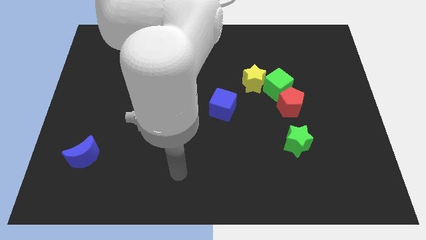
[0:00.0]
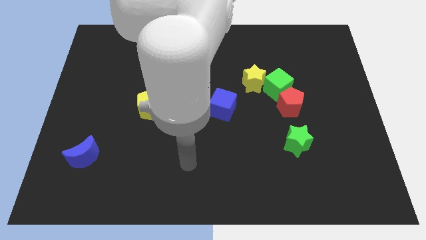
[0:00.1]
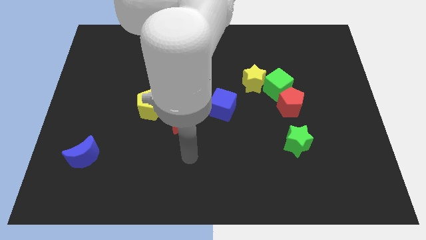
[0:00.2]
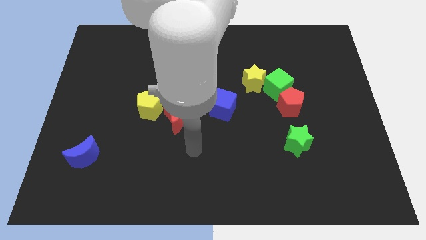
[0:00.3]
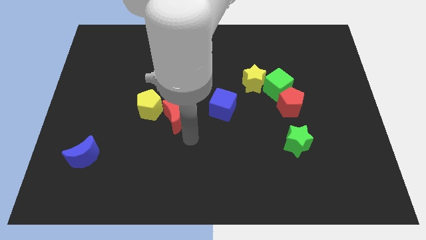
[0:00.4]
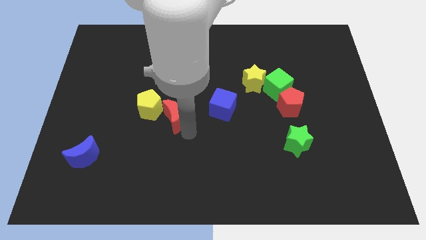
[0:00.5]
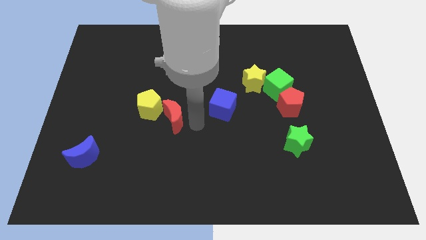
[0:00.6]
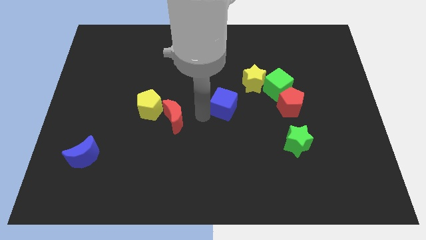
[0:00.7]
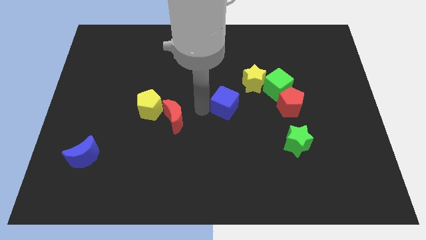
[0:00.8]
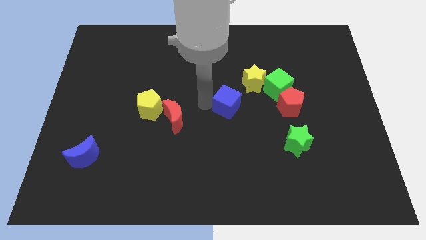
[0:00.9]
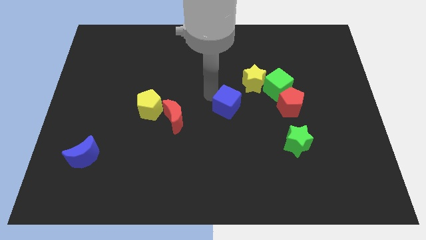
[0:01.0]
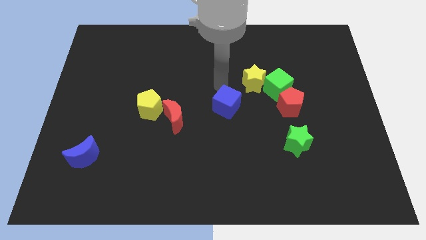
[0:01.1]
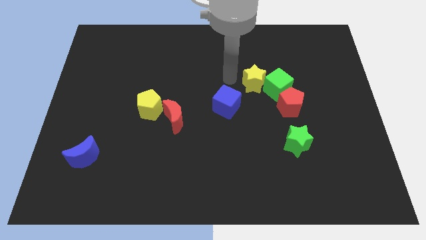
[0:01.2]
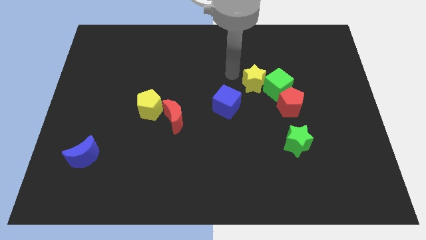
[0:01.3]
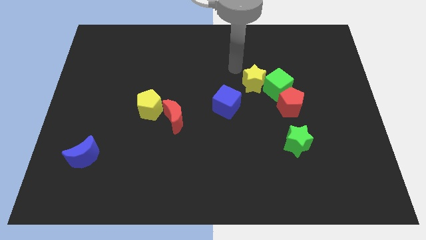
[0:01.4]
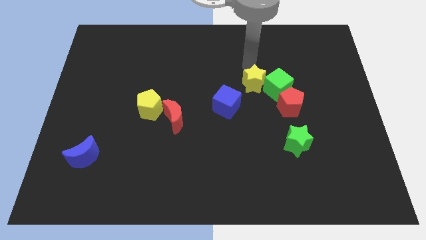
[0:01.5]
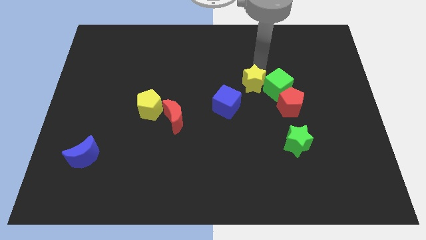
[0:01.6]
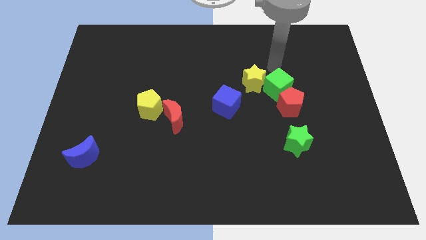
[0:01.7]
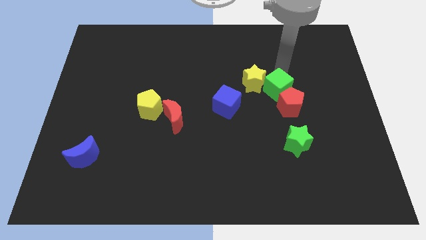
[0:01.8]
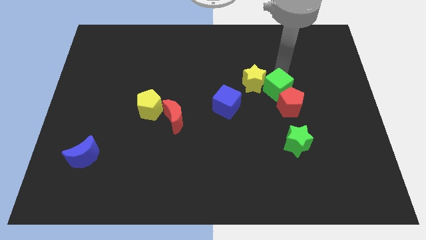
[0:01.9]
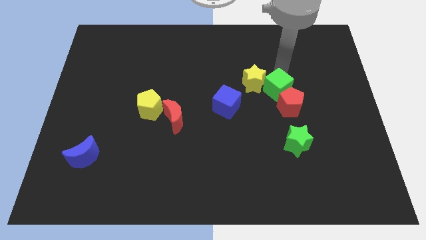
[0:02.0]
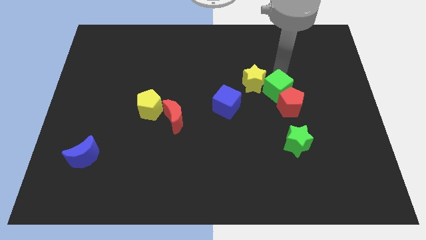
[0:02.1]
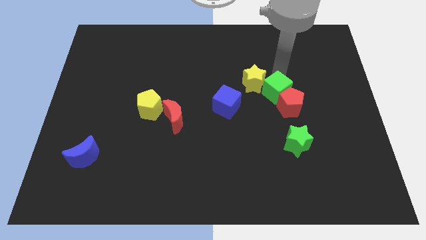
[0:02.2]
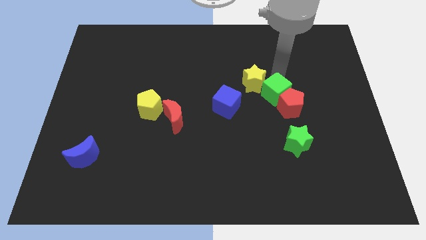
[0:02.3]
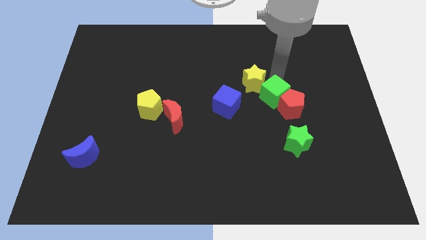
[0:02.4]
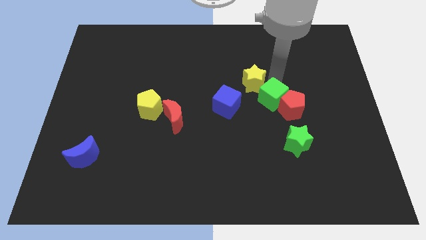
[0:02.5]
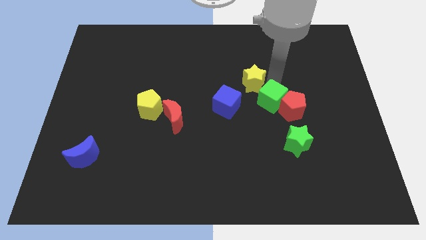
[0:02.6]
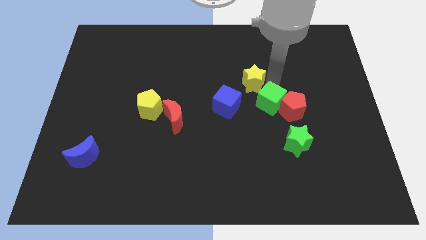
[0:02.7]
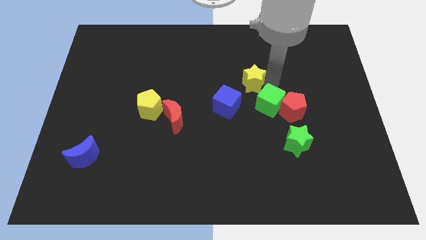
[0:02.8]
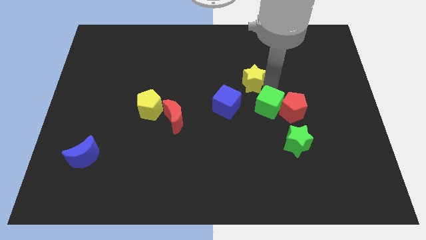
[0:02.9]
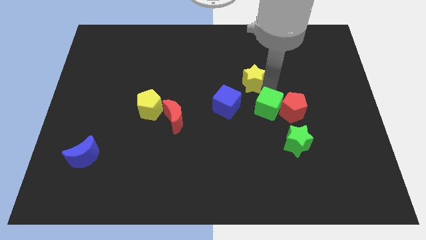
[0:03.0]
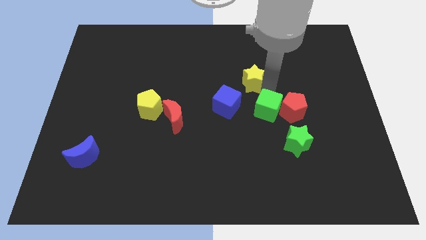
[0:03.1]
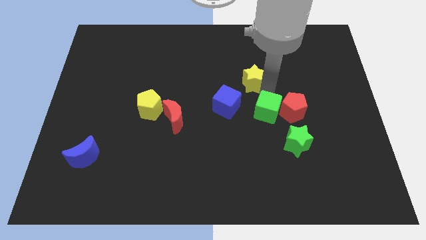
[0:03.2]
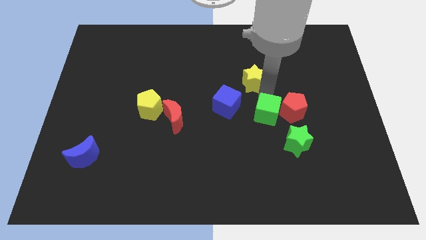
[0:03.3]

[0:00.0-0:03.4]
slide the green cube down a little bit

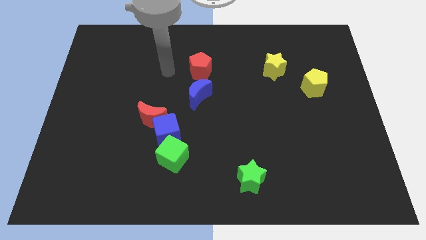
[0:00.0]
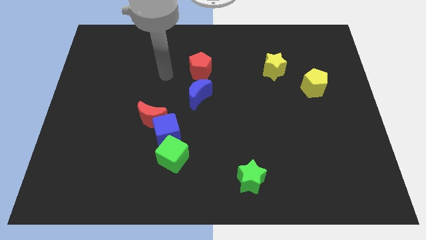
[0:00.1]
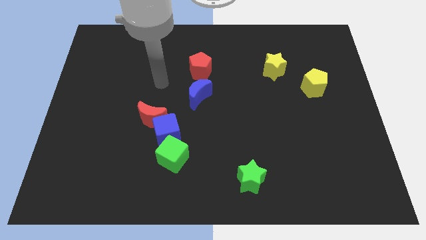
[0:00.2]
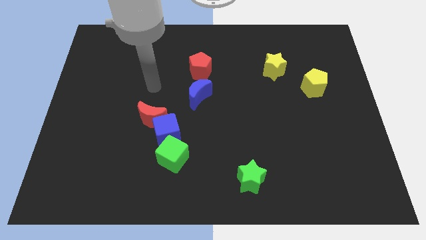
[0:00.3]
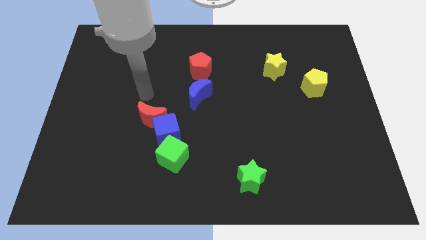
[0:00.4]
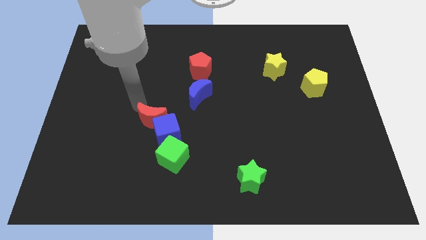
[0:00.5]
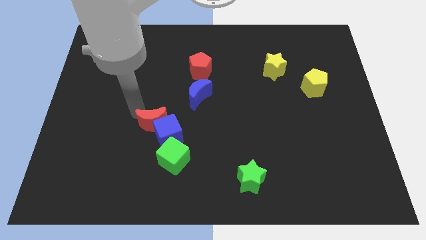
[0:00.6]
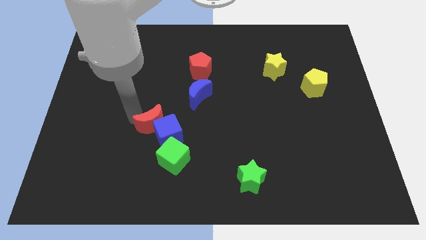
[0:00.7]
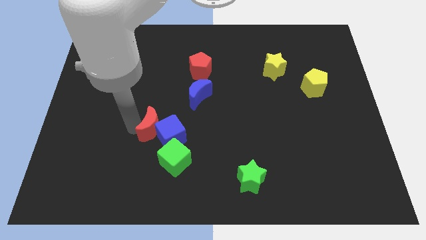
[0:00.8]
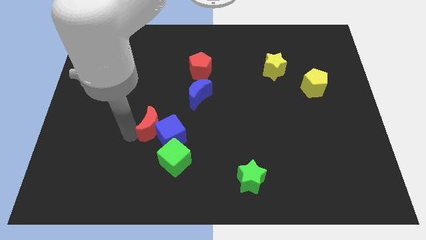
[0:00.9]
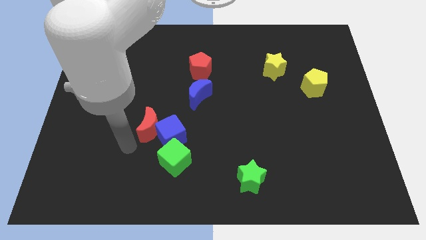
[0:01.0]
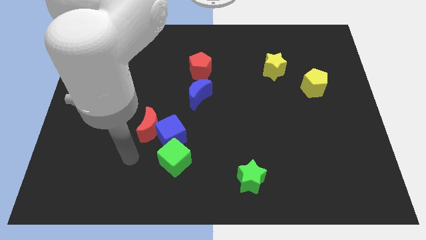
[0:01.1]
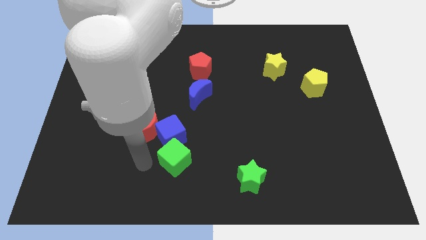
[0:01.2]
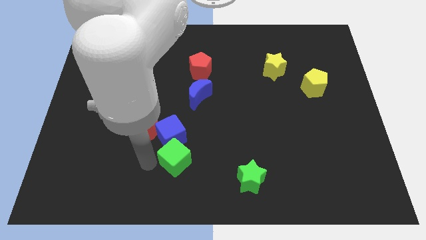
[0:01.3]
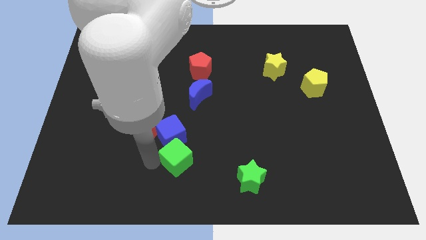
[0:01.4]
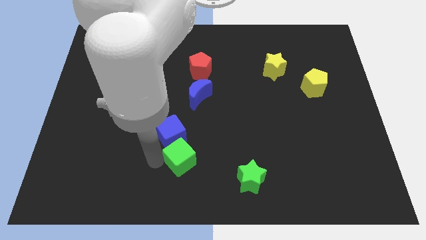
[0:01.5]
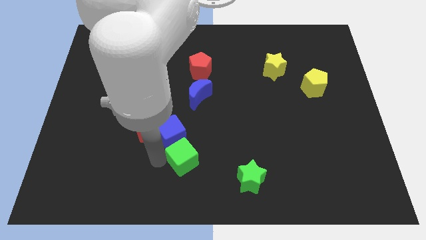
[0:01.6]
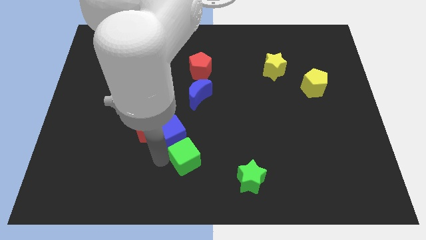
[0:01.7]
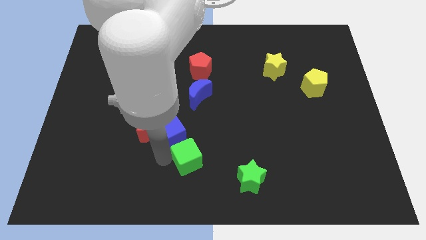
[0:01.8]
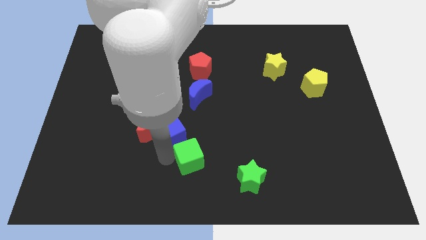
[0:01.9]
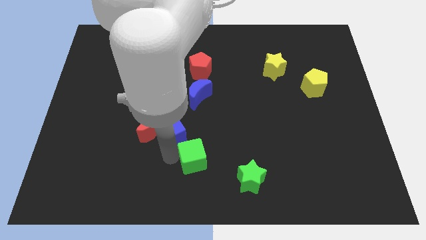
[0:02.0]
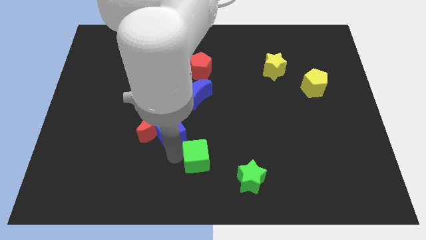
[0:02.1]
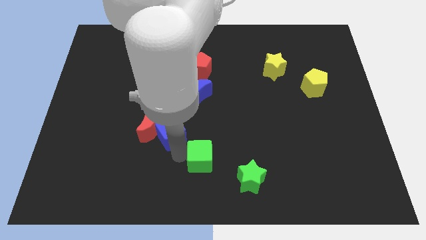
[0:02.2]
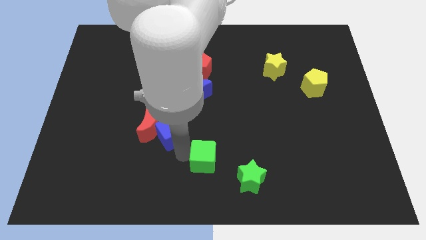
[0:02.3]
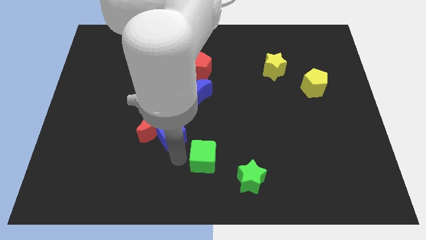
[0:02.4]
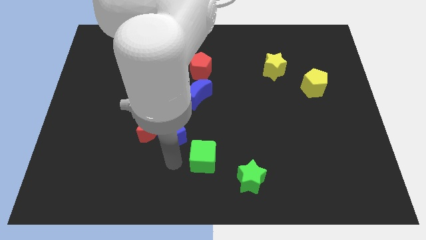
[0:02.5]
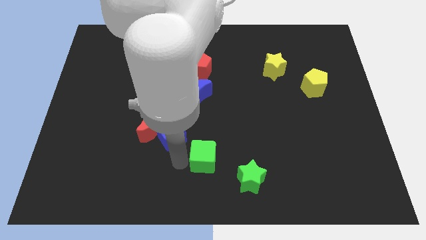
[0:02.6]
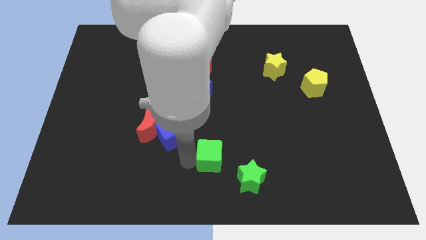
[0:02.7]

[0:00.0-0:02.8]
move the green cube to the right a little

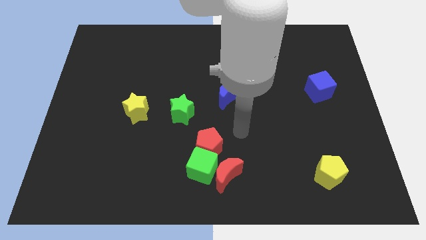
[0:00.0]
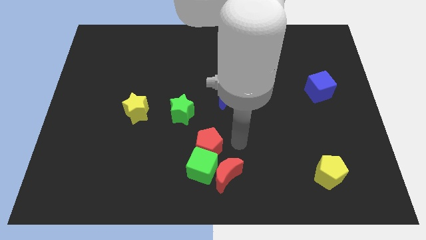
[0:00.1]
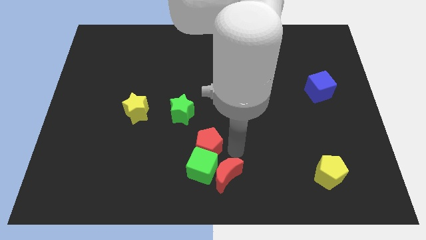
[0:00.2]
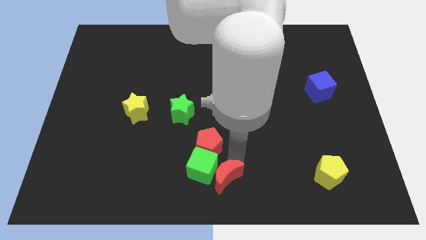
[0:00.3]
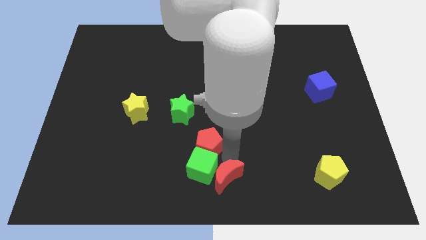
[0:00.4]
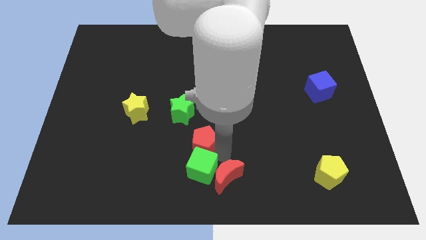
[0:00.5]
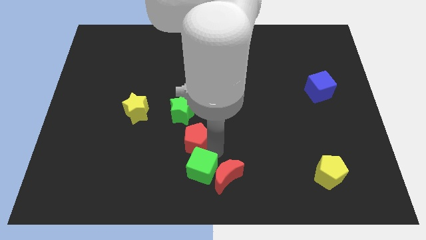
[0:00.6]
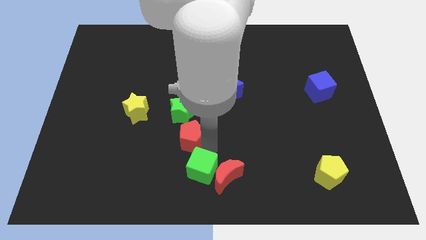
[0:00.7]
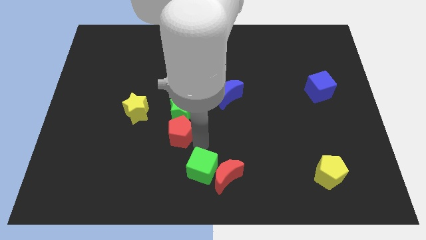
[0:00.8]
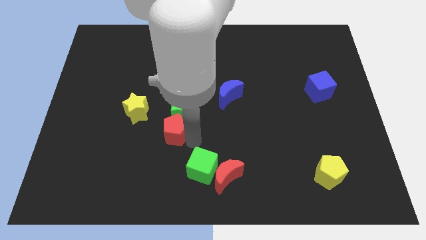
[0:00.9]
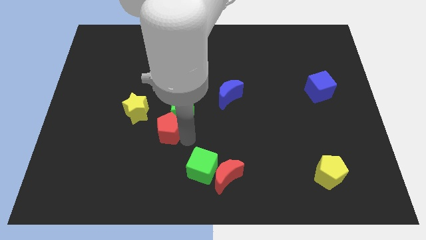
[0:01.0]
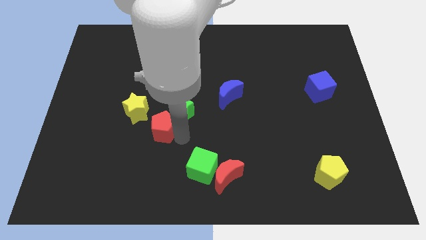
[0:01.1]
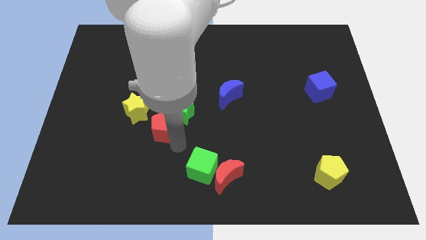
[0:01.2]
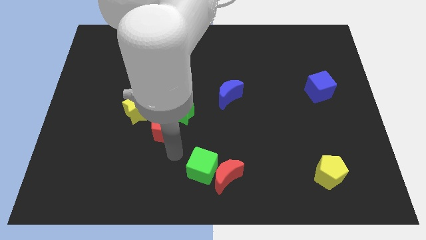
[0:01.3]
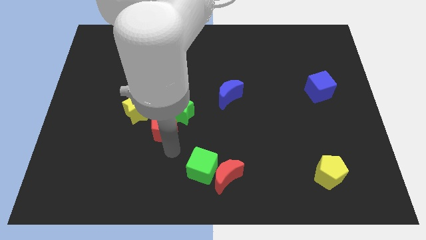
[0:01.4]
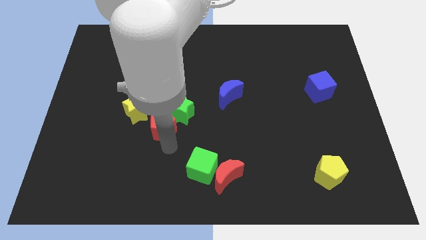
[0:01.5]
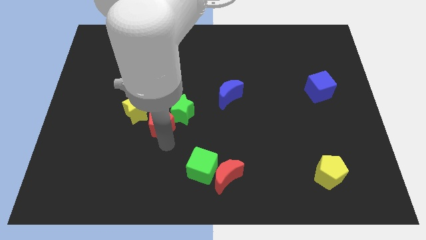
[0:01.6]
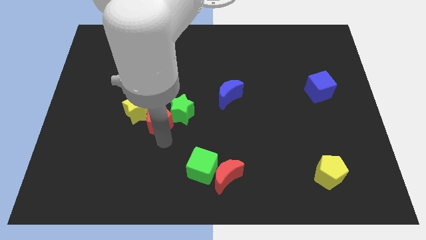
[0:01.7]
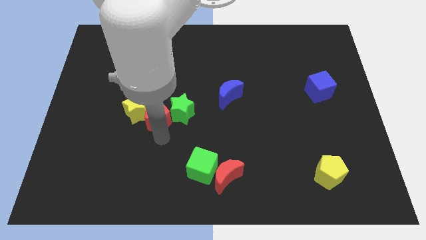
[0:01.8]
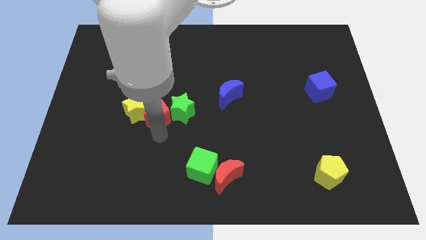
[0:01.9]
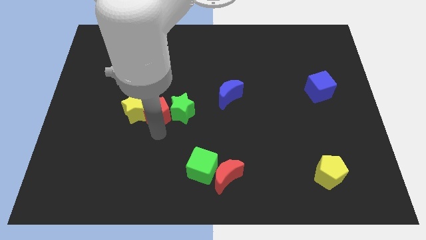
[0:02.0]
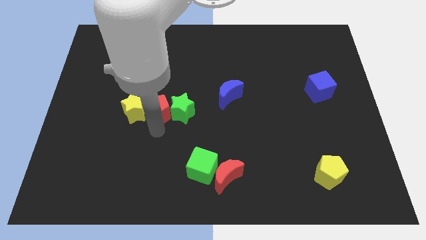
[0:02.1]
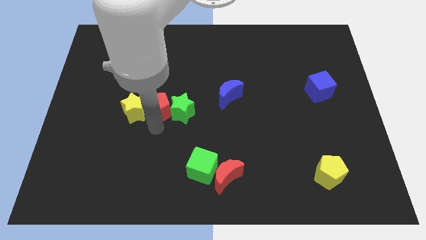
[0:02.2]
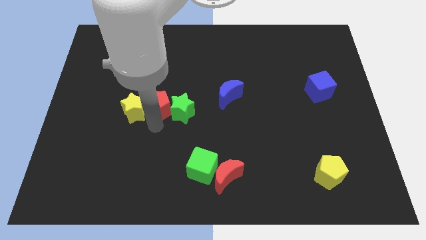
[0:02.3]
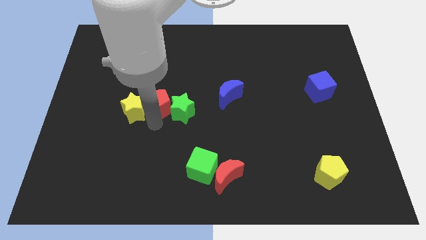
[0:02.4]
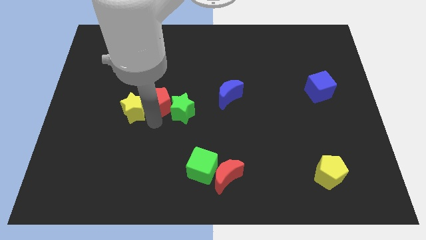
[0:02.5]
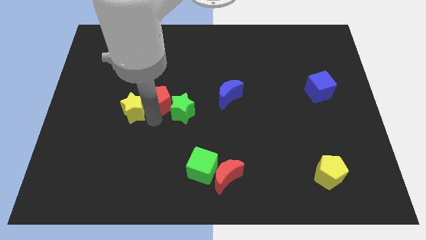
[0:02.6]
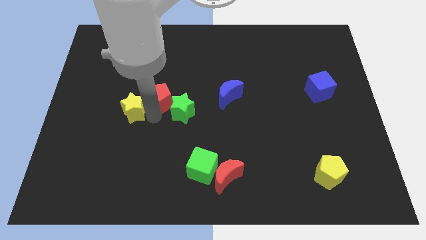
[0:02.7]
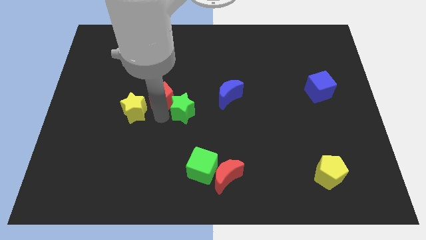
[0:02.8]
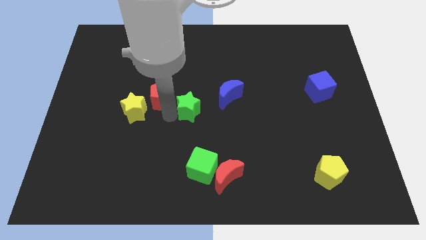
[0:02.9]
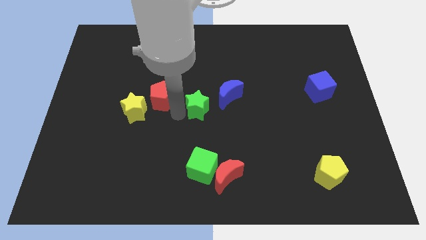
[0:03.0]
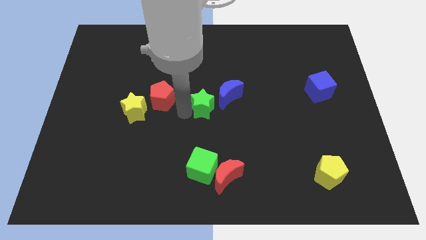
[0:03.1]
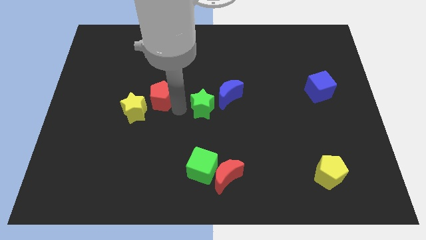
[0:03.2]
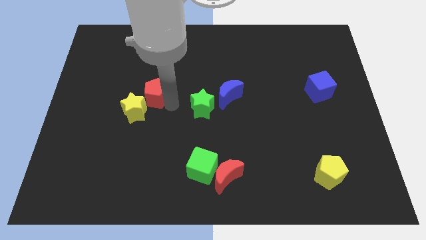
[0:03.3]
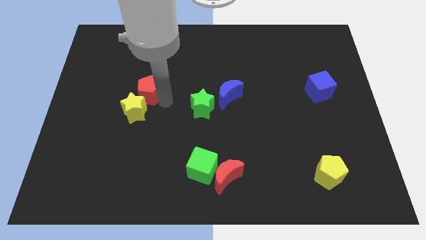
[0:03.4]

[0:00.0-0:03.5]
slide the red pentagon up and then left
